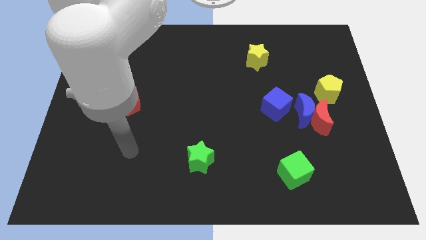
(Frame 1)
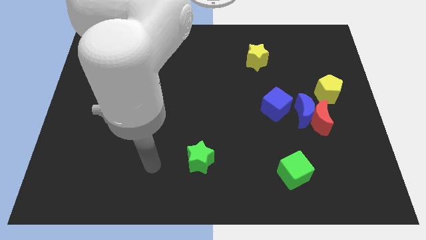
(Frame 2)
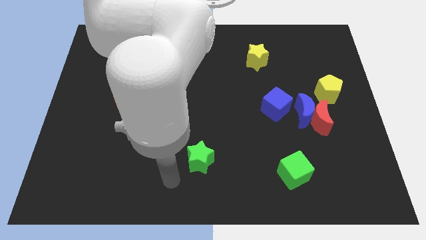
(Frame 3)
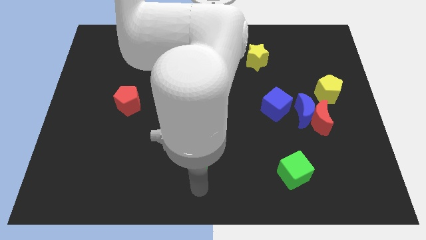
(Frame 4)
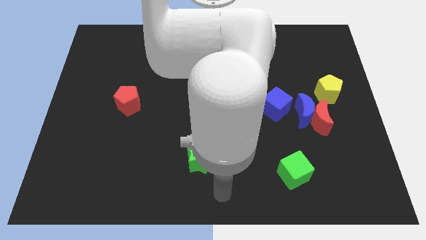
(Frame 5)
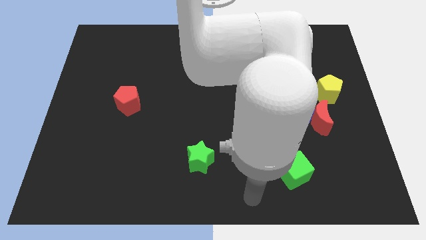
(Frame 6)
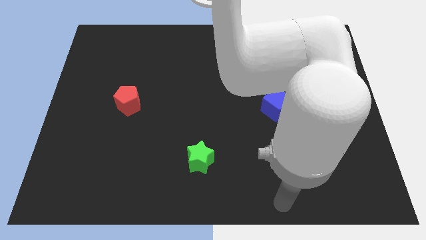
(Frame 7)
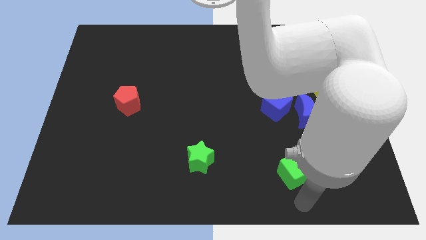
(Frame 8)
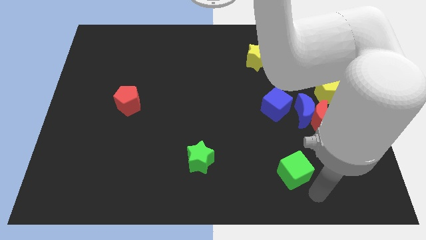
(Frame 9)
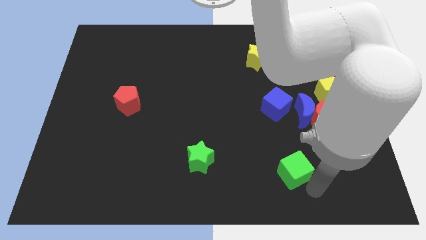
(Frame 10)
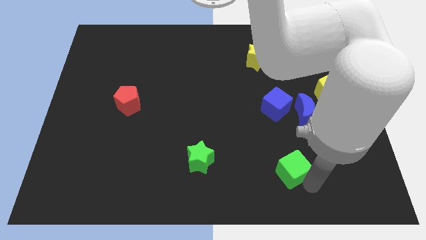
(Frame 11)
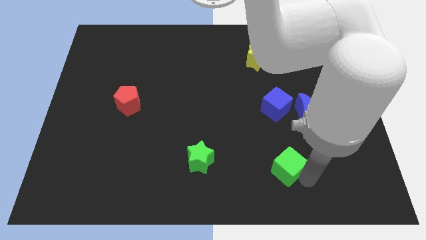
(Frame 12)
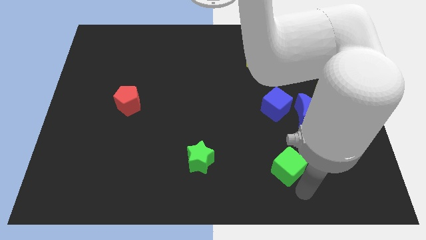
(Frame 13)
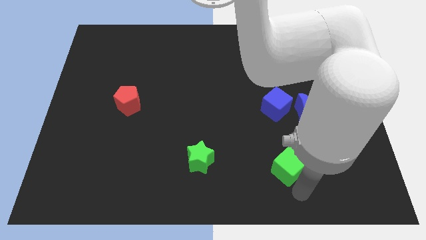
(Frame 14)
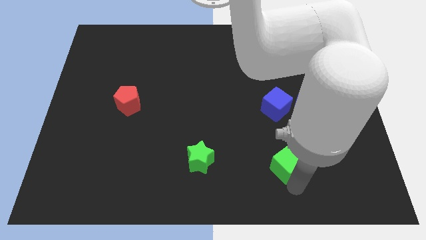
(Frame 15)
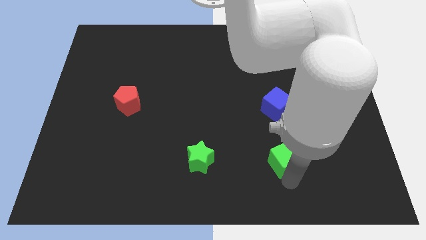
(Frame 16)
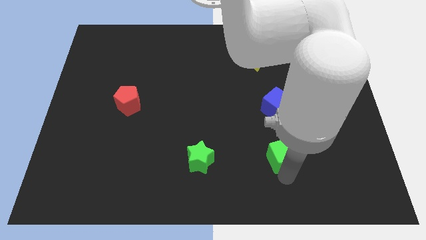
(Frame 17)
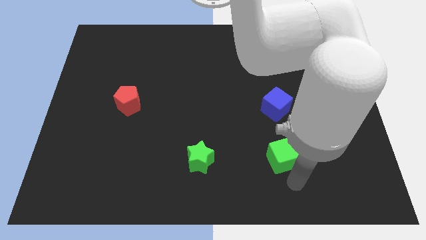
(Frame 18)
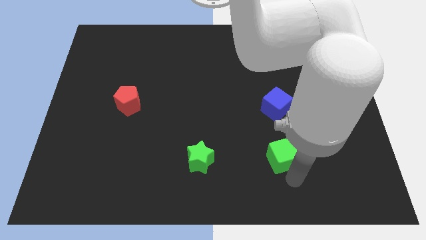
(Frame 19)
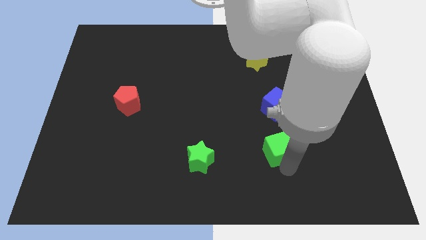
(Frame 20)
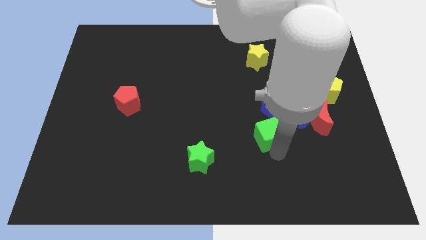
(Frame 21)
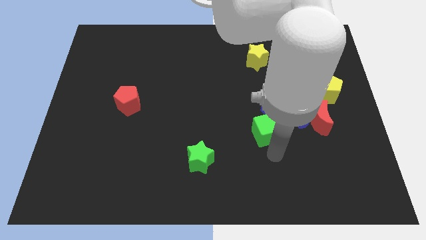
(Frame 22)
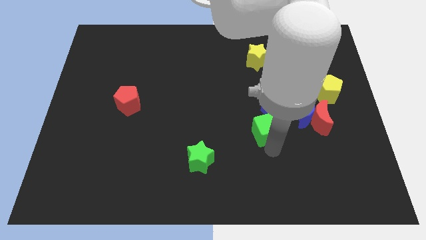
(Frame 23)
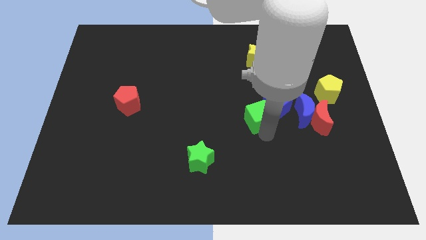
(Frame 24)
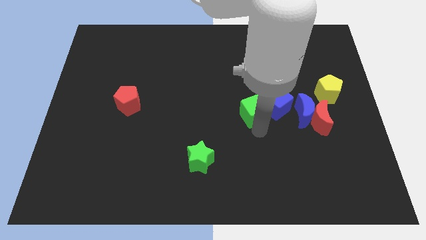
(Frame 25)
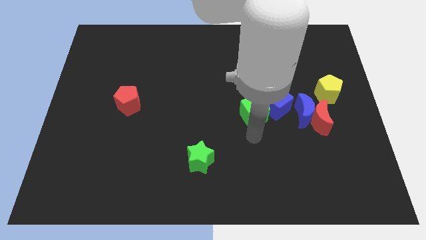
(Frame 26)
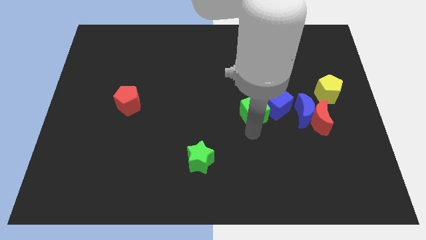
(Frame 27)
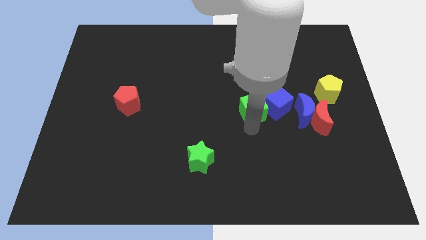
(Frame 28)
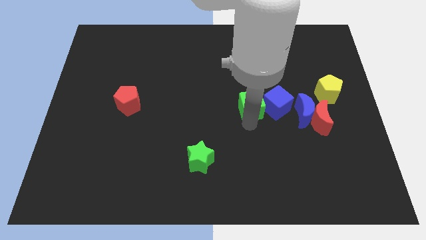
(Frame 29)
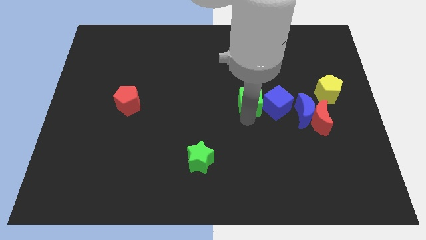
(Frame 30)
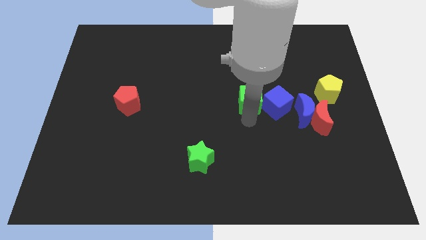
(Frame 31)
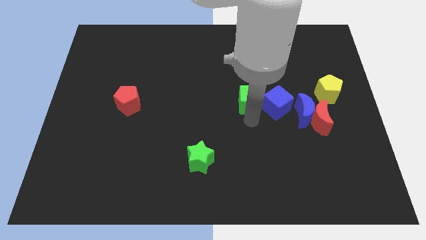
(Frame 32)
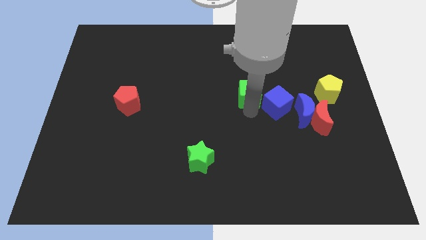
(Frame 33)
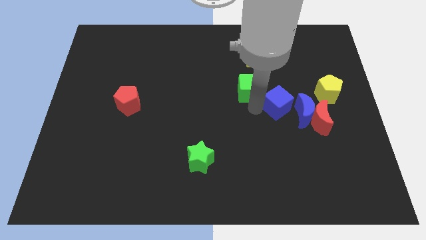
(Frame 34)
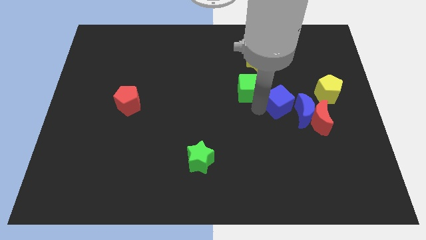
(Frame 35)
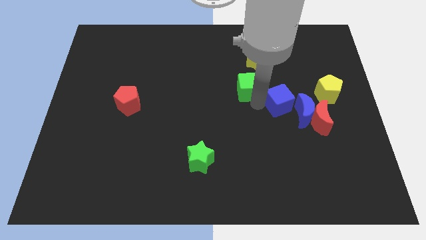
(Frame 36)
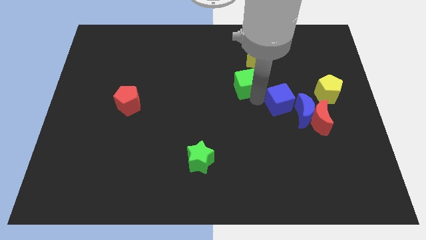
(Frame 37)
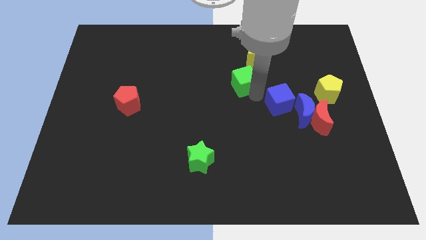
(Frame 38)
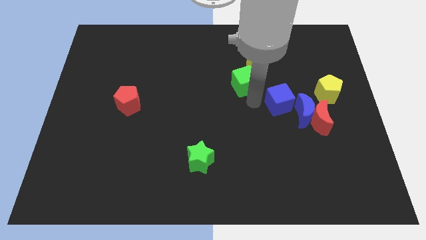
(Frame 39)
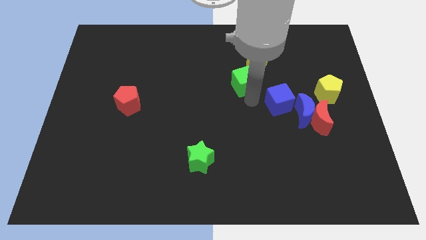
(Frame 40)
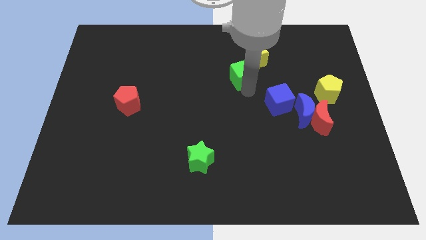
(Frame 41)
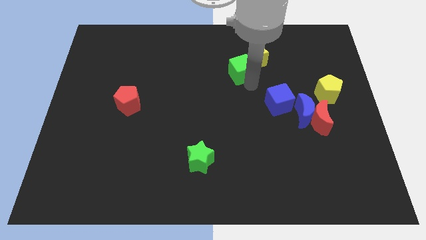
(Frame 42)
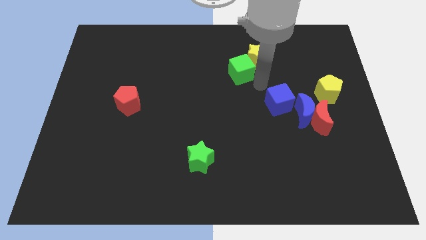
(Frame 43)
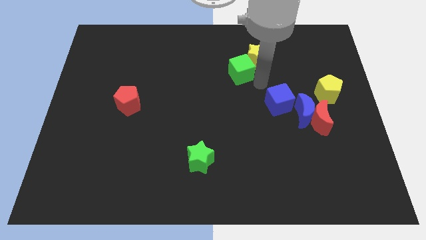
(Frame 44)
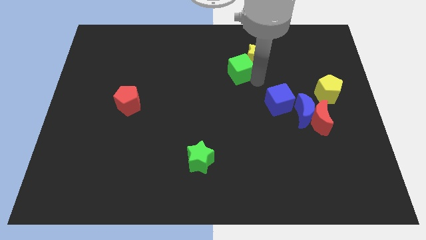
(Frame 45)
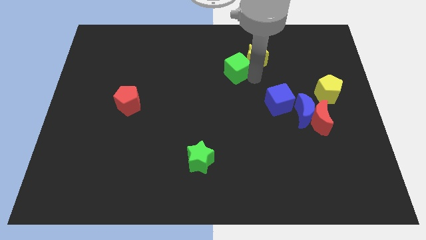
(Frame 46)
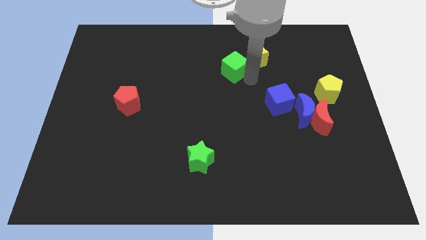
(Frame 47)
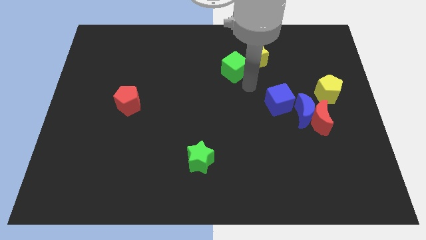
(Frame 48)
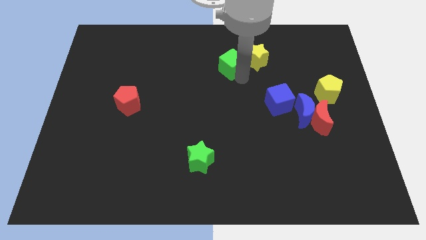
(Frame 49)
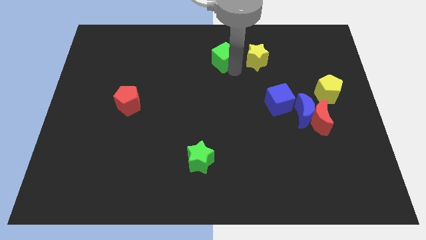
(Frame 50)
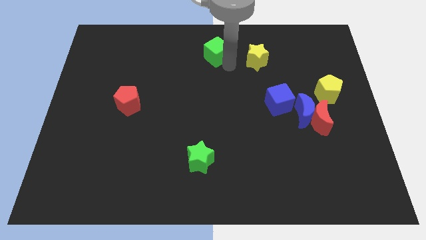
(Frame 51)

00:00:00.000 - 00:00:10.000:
slide the green cube to the top side

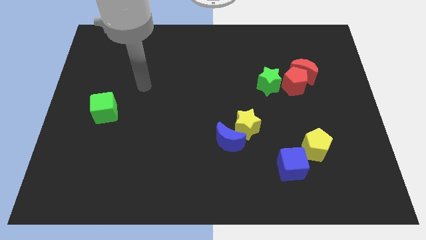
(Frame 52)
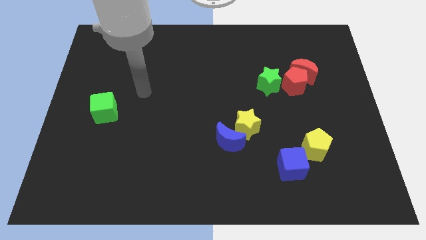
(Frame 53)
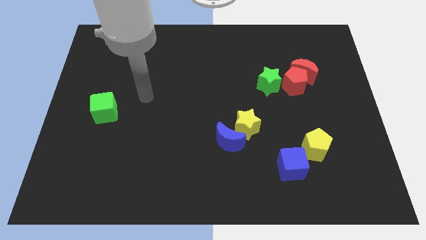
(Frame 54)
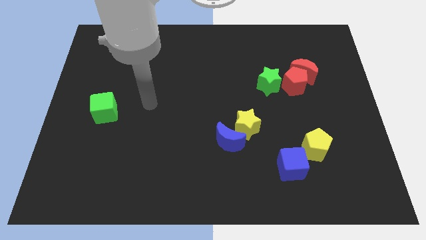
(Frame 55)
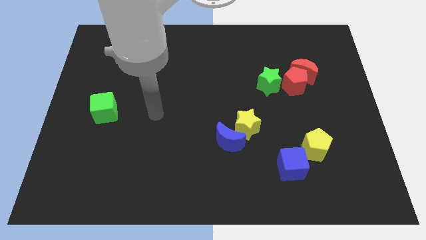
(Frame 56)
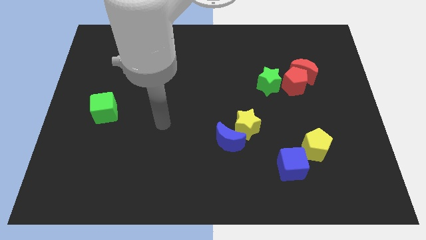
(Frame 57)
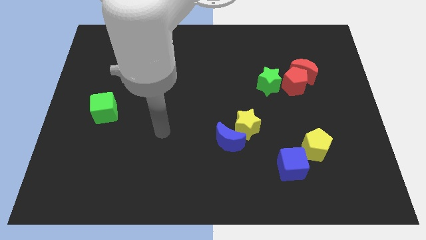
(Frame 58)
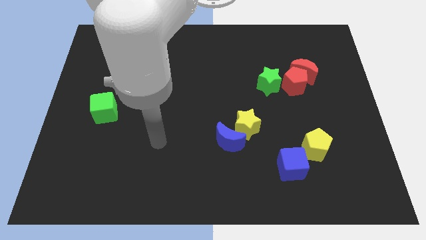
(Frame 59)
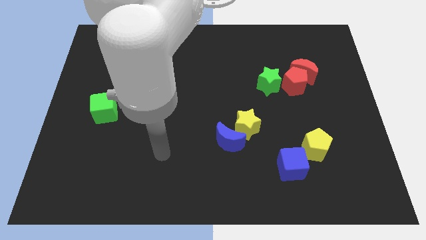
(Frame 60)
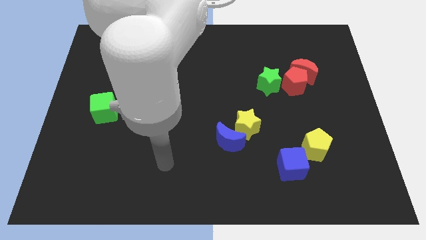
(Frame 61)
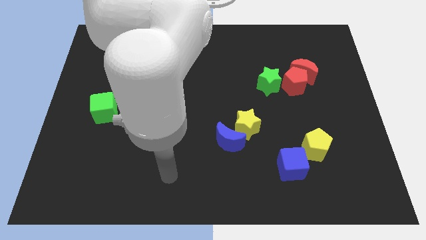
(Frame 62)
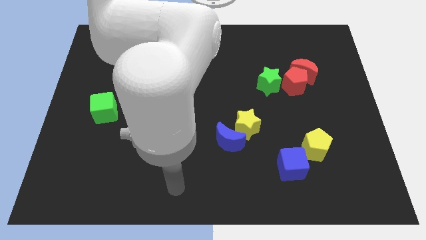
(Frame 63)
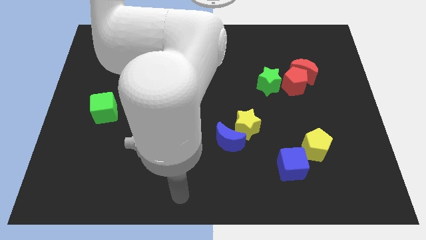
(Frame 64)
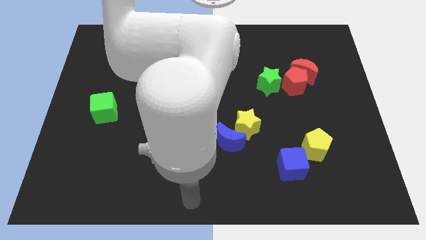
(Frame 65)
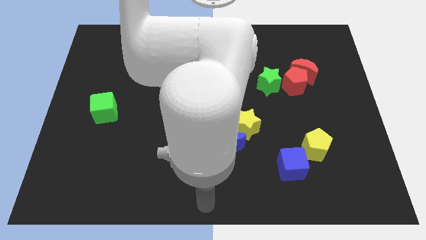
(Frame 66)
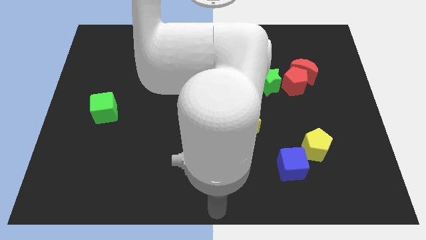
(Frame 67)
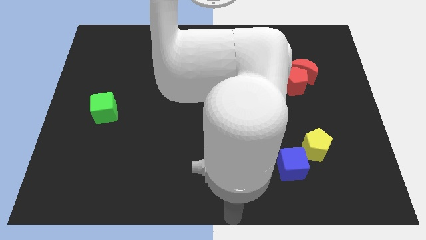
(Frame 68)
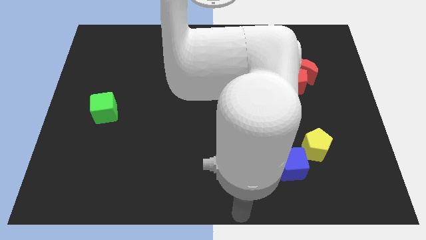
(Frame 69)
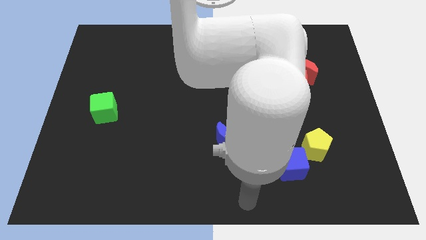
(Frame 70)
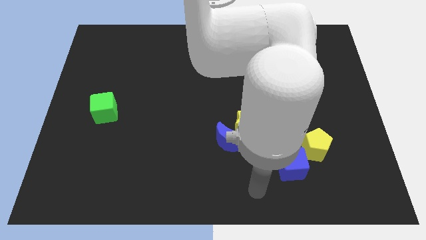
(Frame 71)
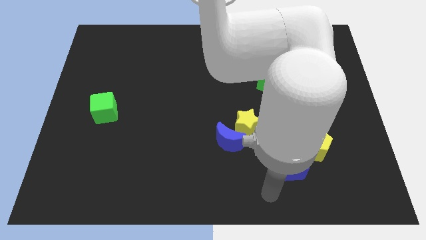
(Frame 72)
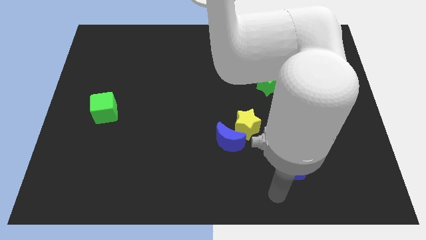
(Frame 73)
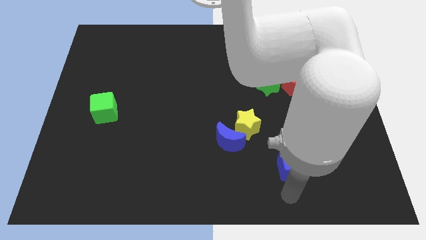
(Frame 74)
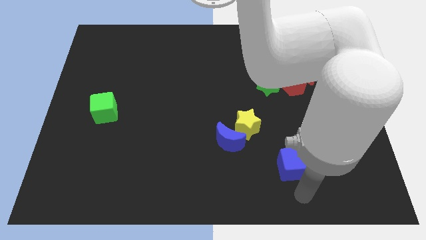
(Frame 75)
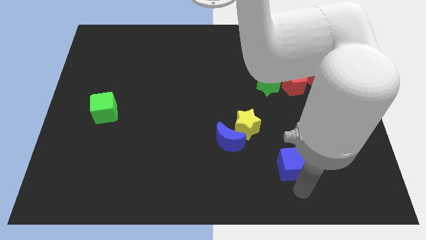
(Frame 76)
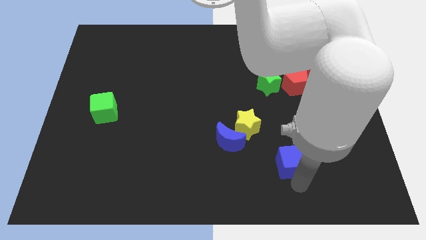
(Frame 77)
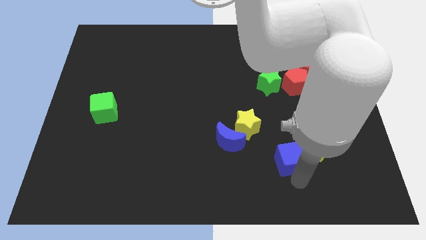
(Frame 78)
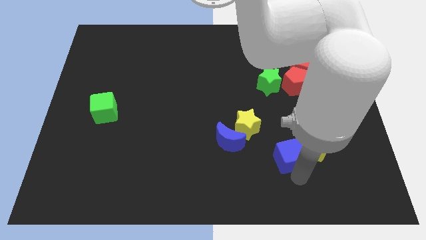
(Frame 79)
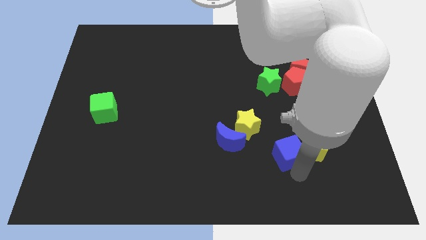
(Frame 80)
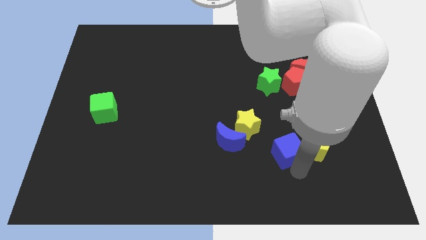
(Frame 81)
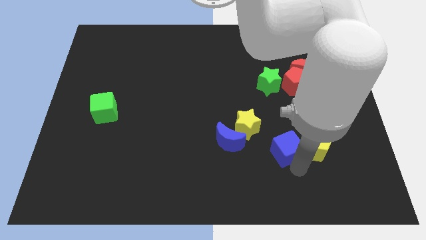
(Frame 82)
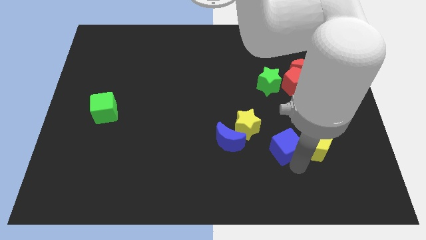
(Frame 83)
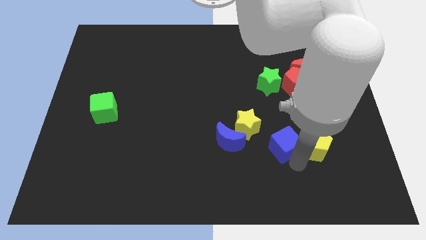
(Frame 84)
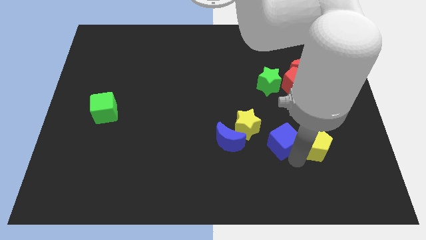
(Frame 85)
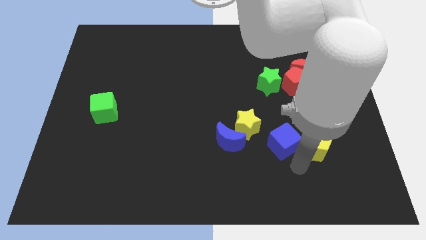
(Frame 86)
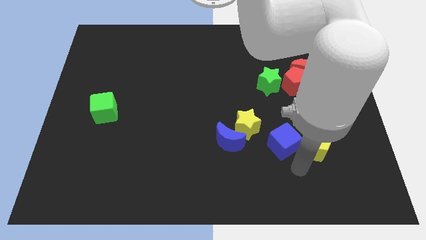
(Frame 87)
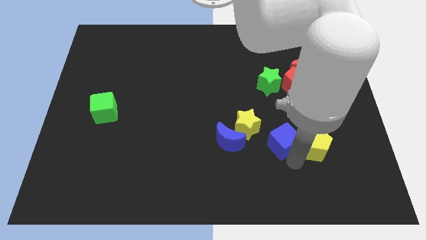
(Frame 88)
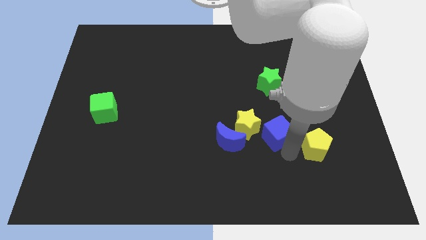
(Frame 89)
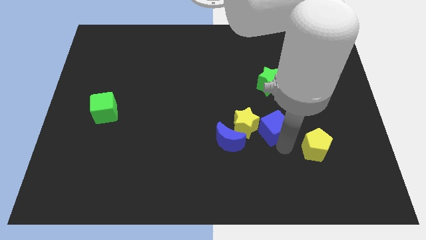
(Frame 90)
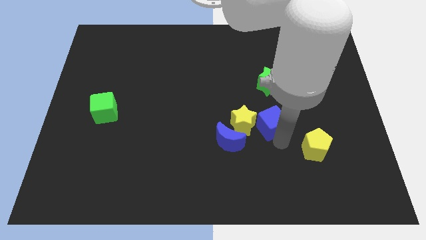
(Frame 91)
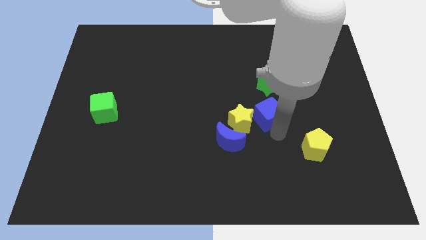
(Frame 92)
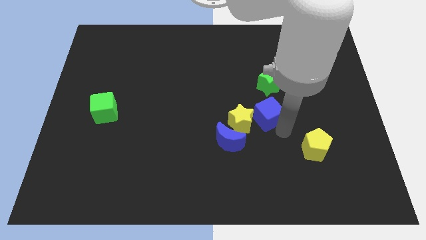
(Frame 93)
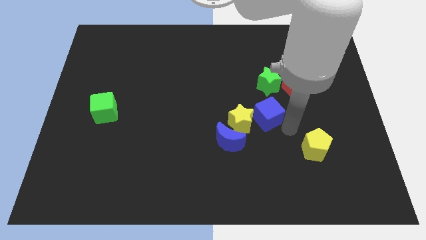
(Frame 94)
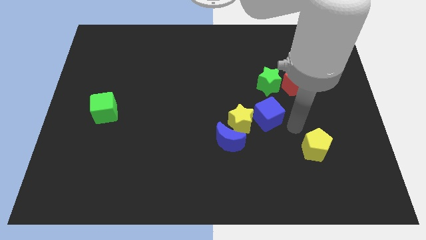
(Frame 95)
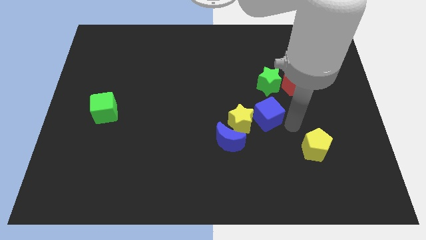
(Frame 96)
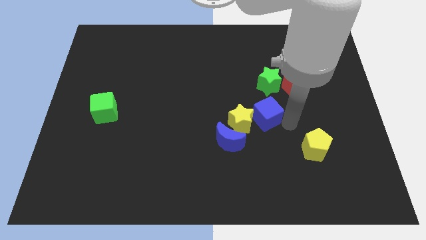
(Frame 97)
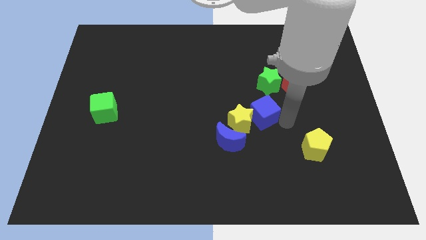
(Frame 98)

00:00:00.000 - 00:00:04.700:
put the blue cube to the middle
